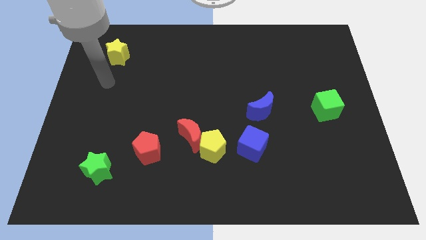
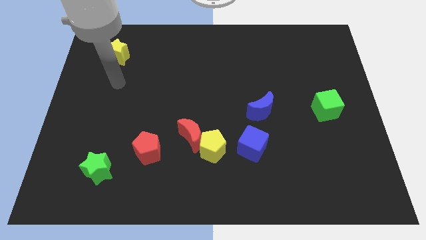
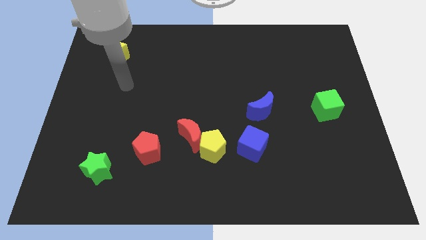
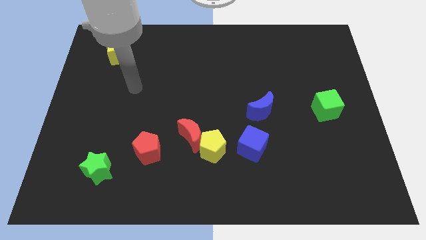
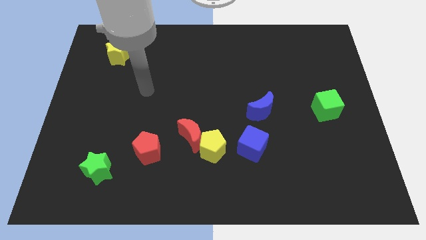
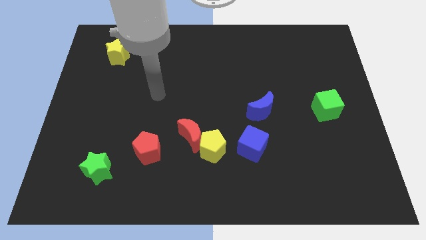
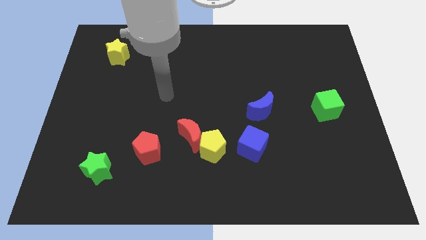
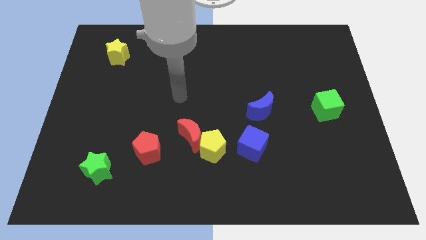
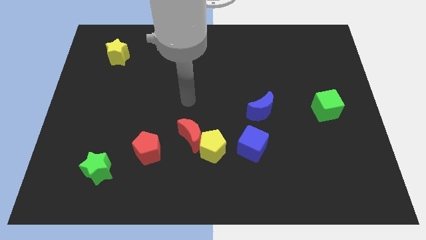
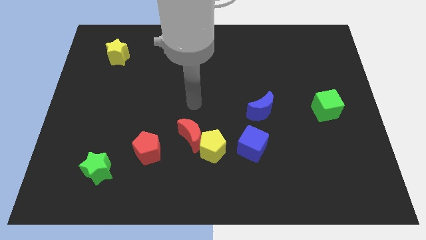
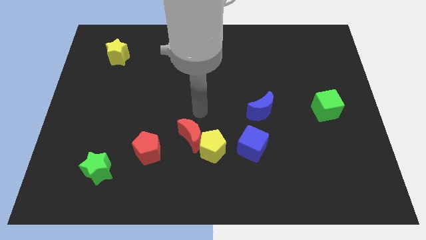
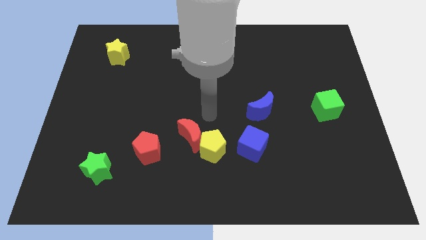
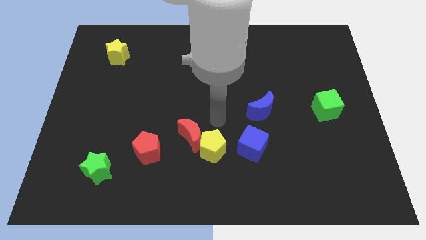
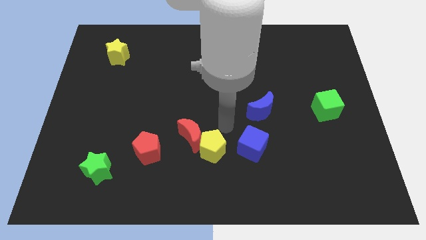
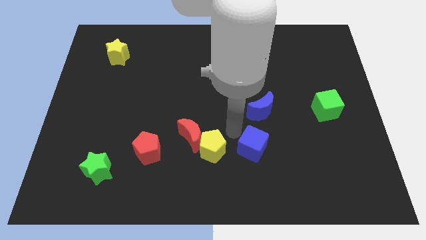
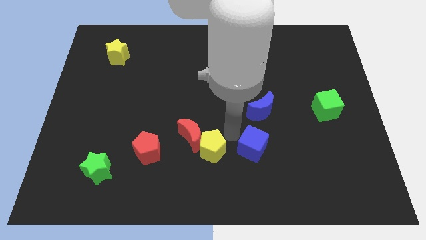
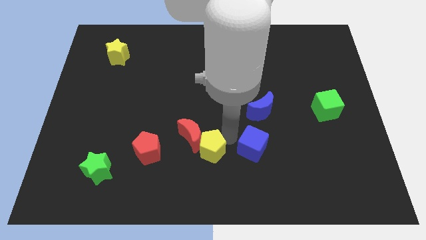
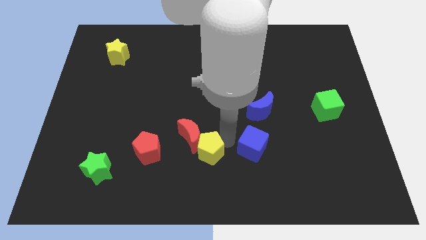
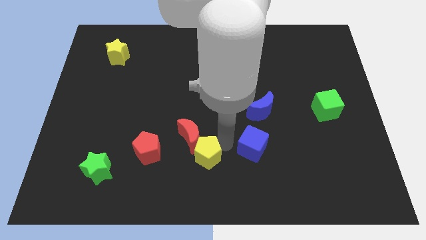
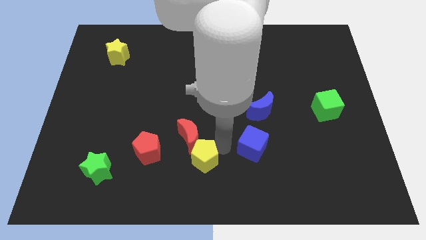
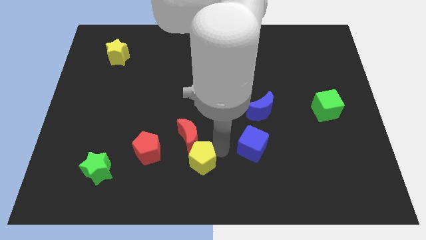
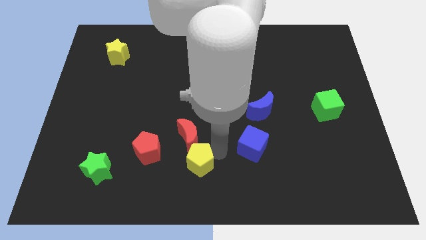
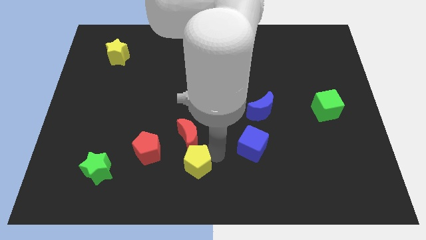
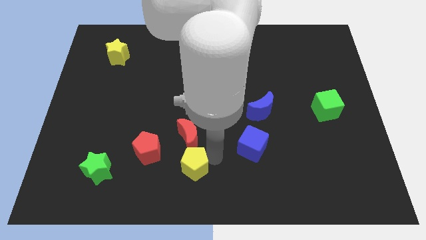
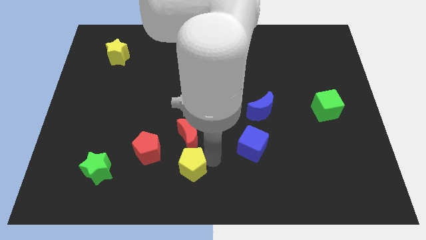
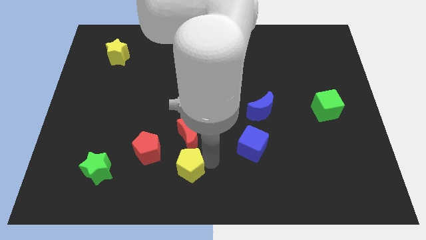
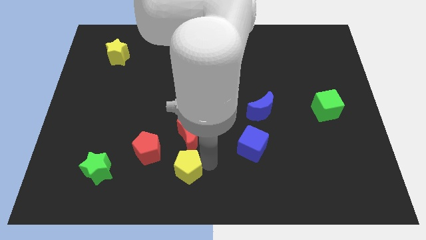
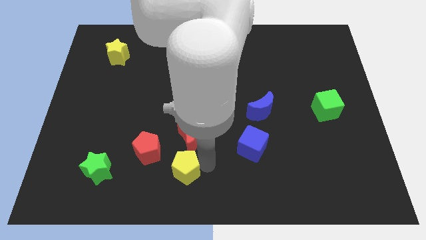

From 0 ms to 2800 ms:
pull the yellow pentagon apart from the red moon and blue cube

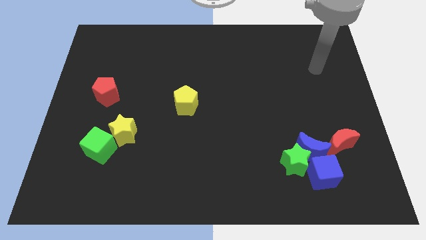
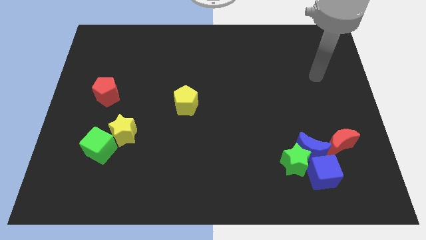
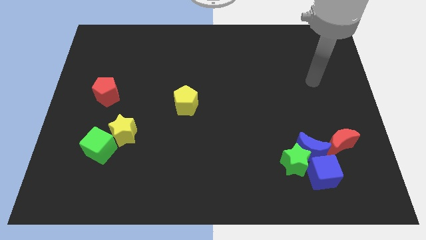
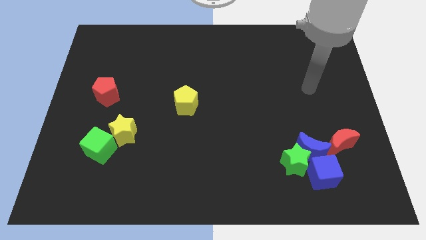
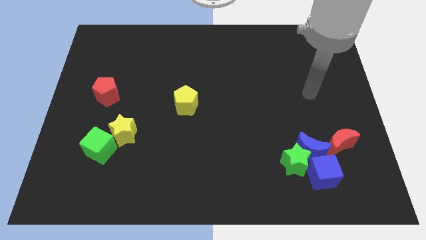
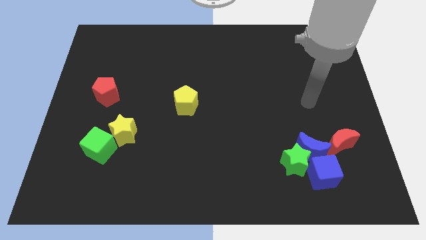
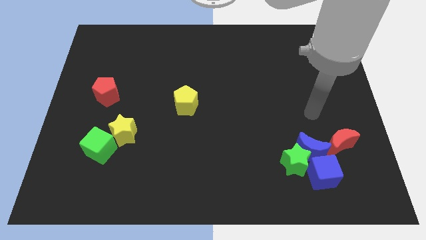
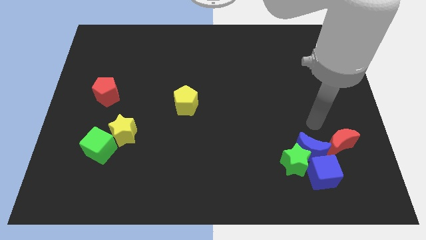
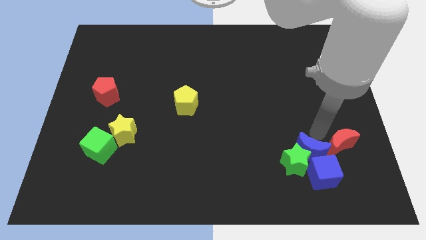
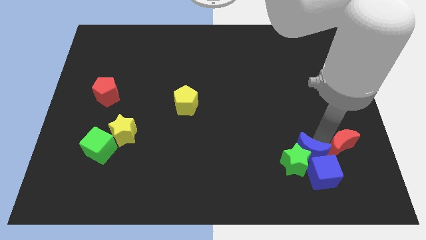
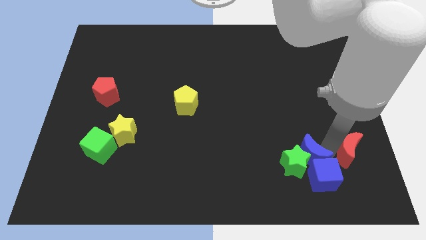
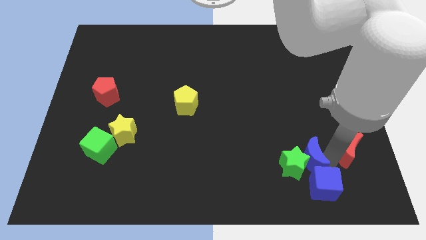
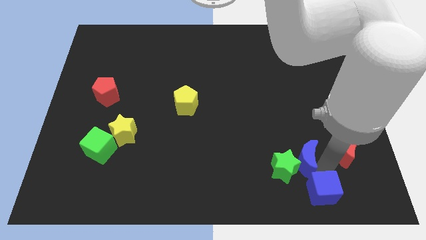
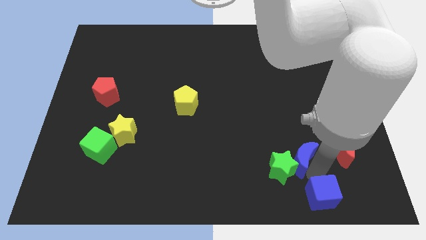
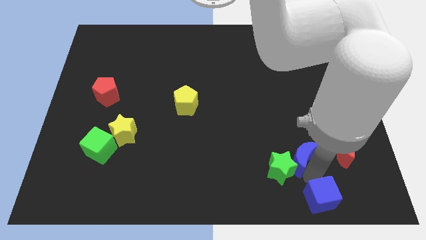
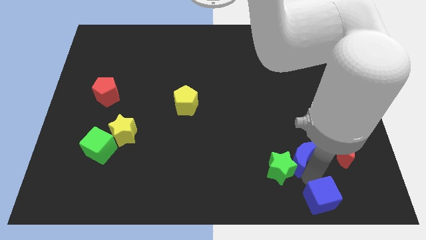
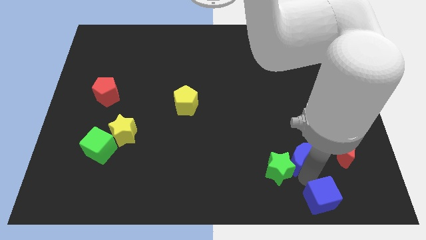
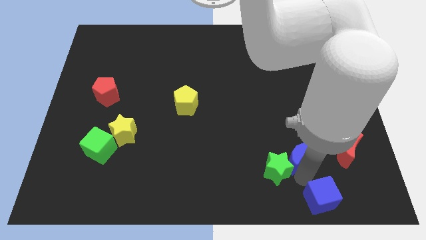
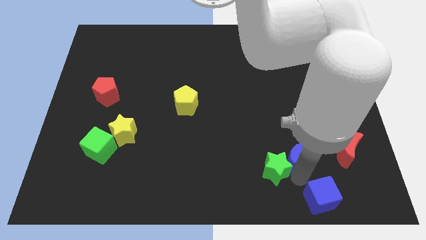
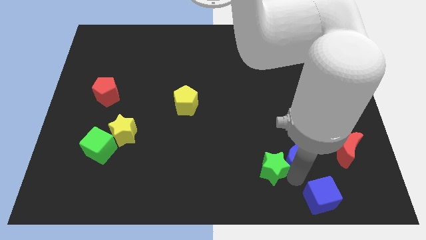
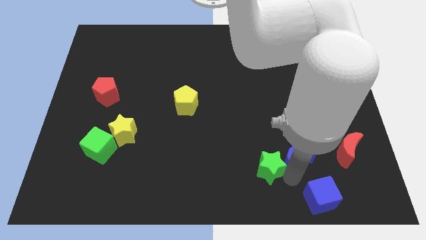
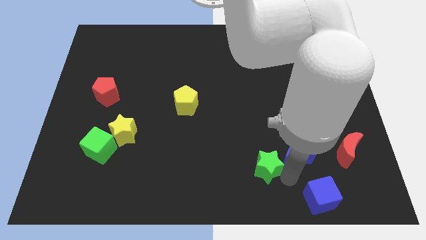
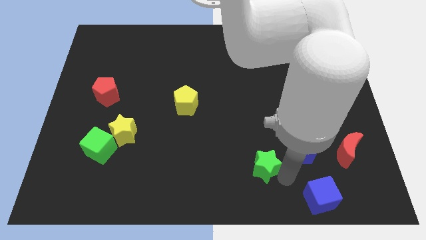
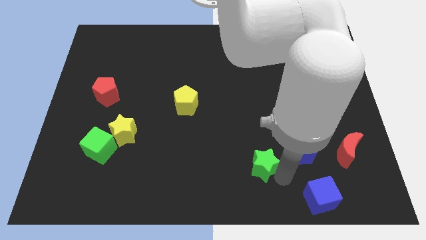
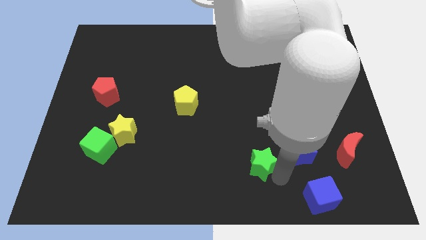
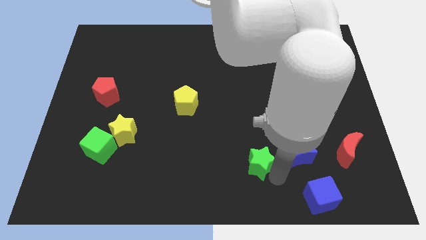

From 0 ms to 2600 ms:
move the green star away from the blue moon and blue cube

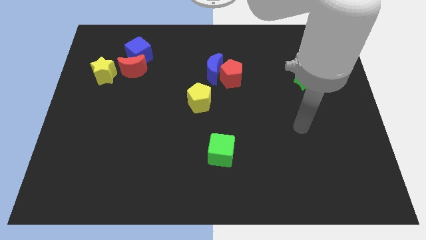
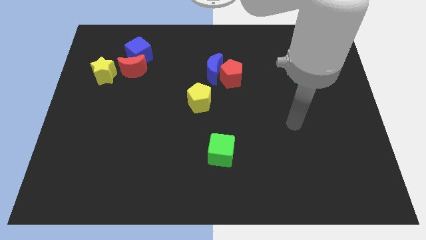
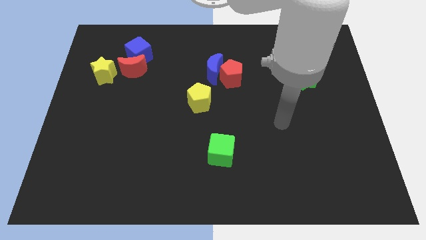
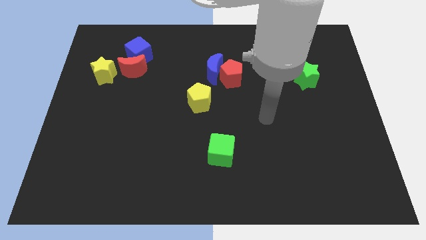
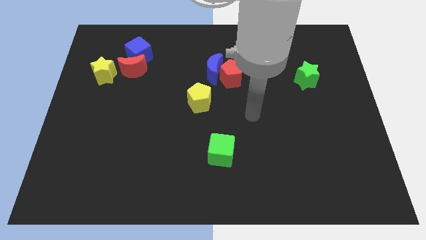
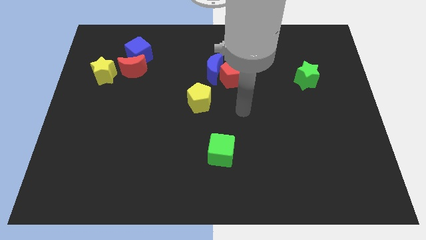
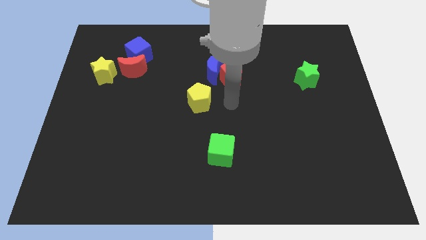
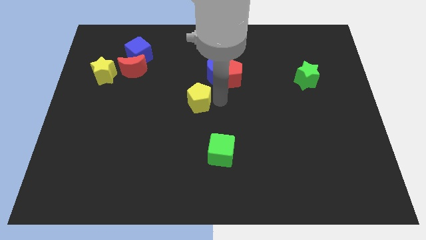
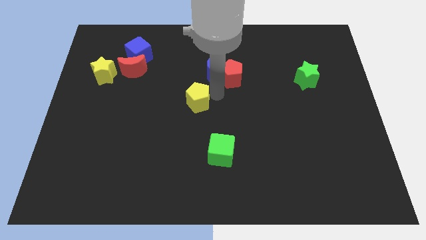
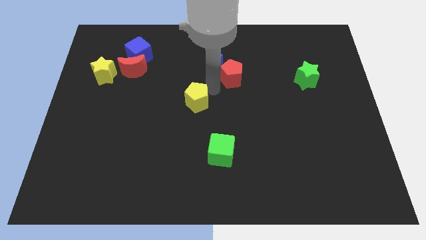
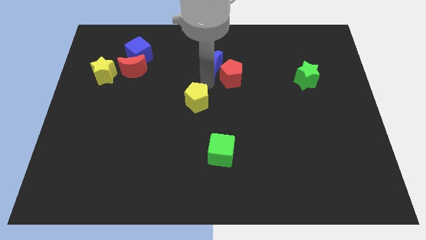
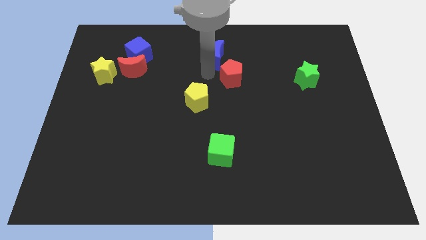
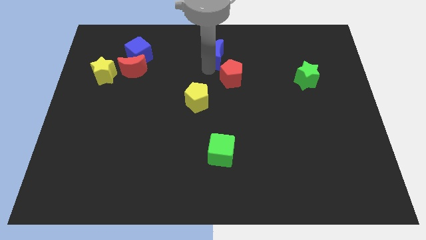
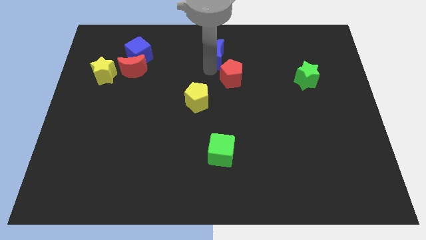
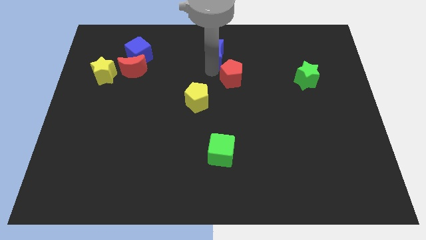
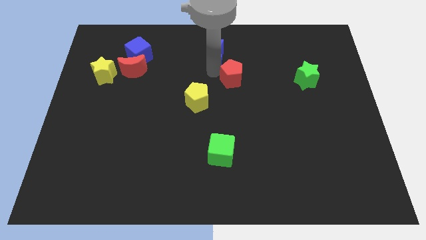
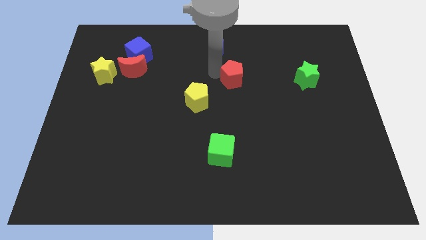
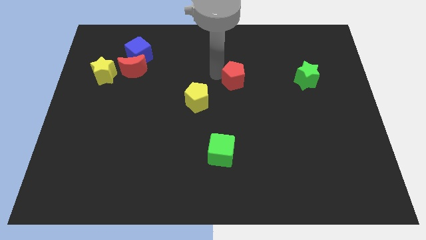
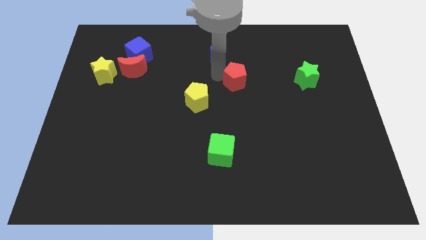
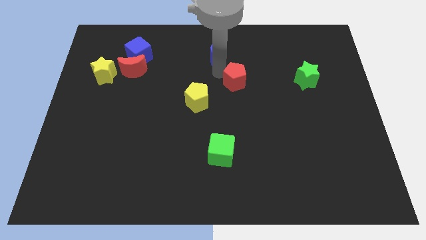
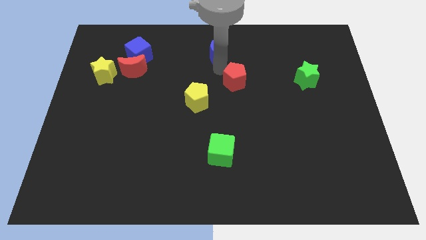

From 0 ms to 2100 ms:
separate the red pentagon from the blue moon

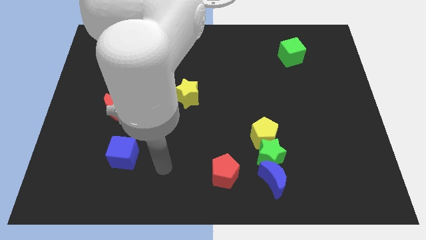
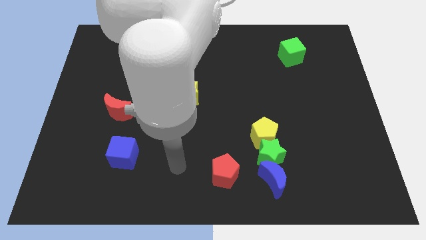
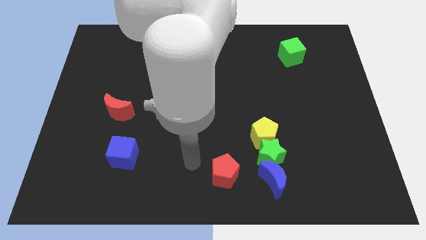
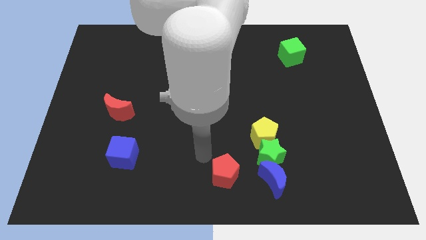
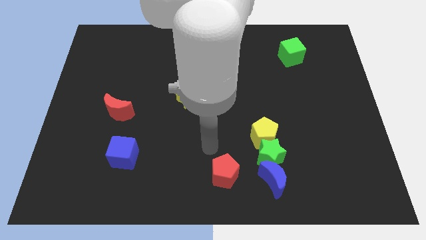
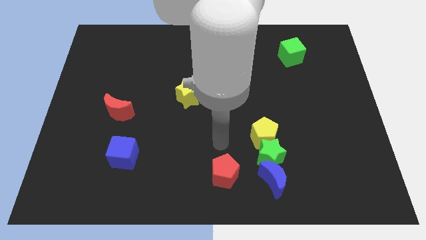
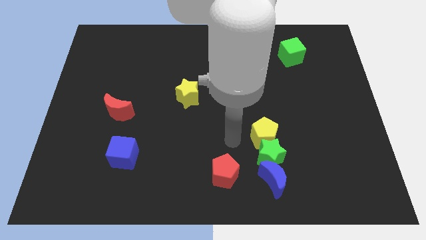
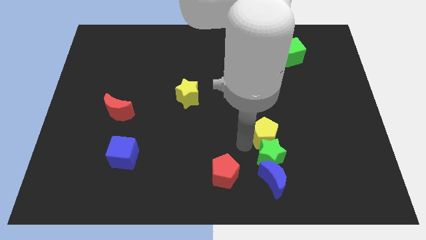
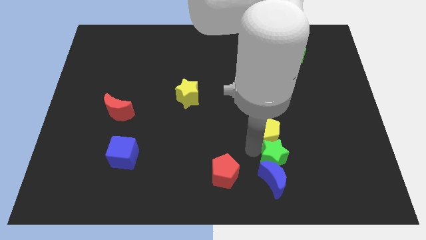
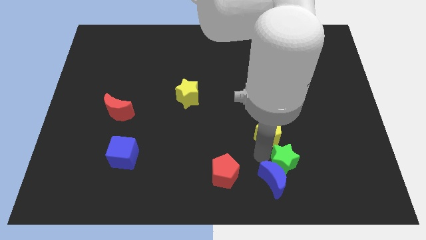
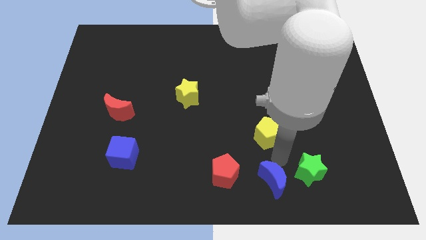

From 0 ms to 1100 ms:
pull the yellow pentagon apart from the green star

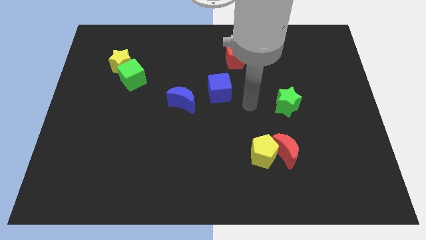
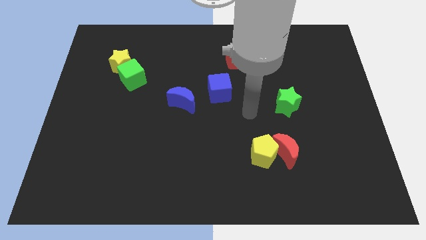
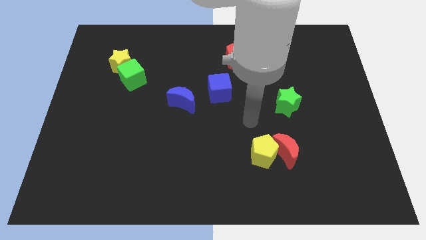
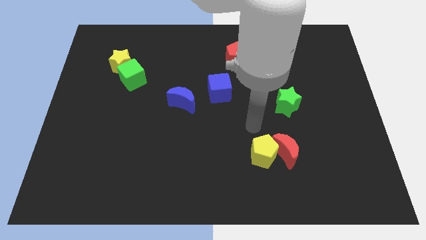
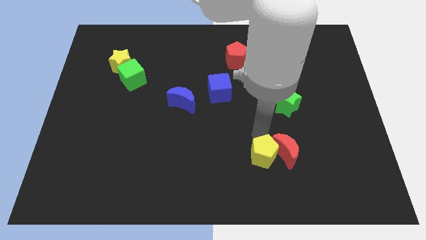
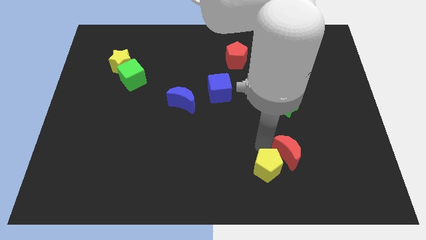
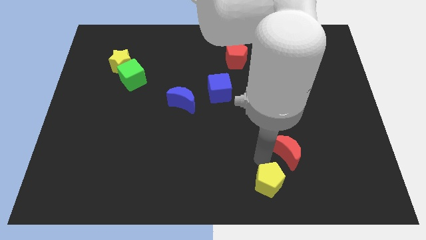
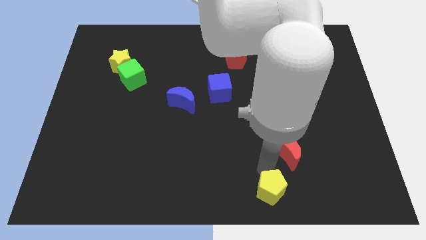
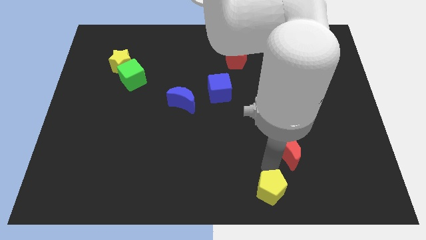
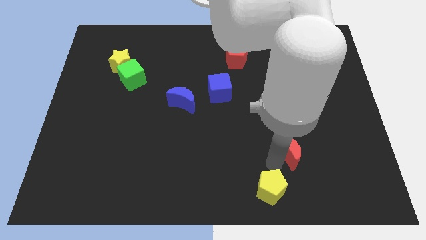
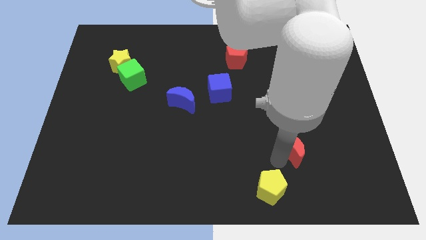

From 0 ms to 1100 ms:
pull the red moon apart from the yellow pentagon
